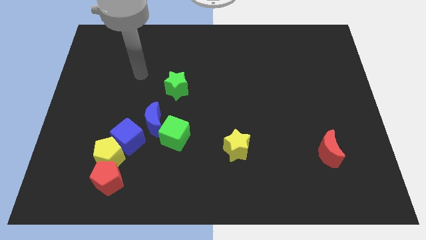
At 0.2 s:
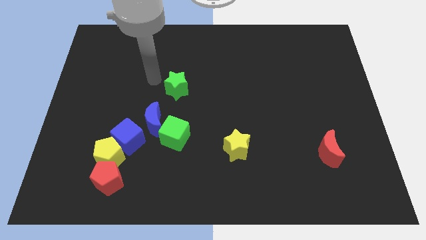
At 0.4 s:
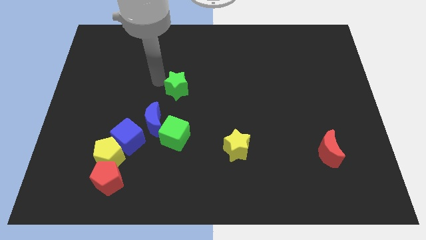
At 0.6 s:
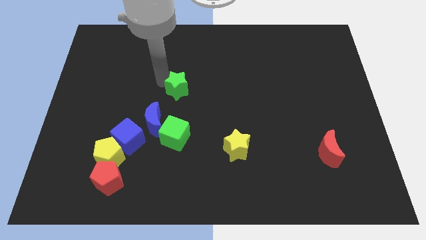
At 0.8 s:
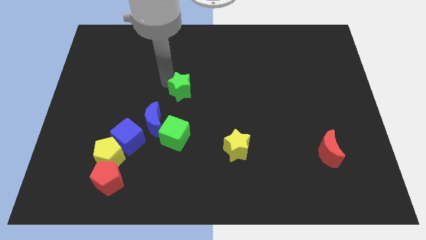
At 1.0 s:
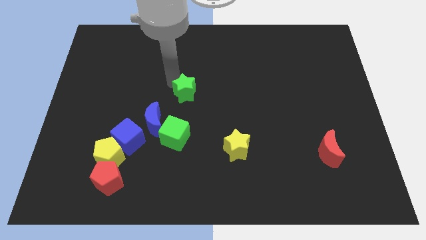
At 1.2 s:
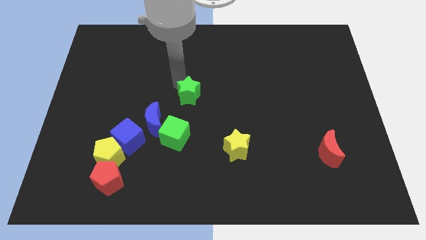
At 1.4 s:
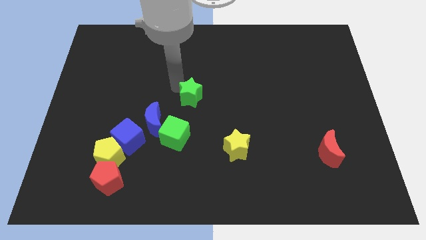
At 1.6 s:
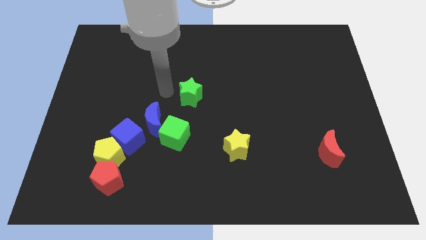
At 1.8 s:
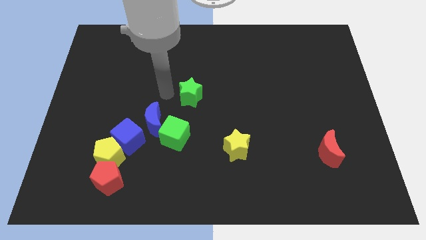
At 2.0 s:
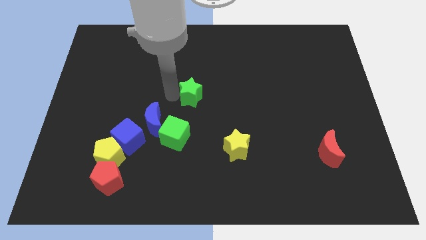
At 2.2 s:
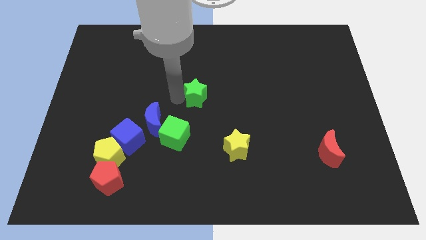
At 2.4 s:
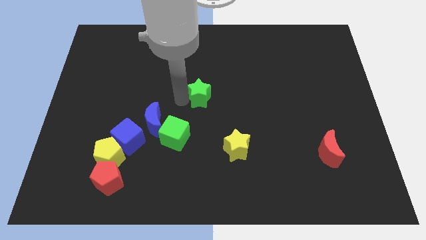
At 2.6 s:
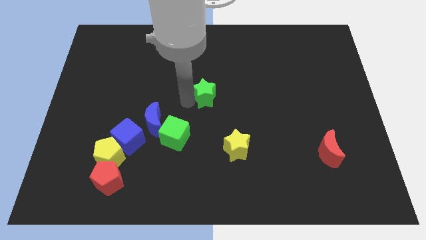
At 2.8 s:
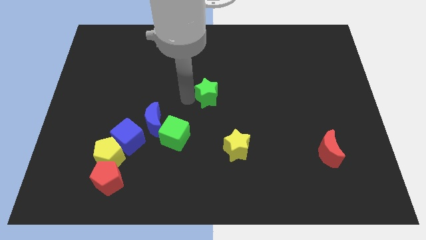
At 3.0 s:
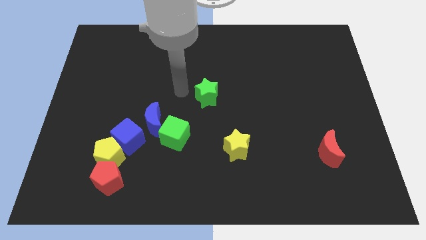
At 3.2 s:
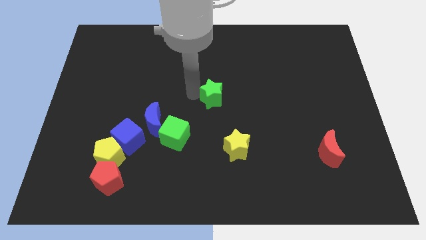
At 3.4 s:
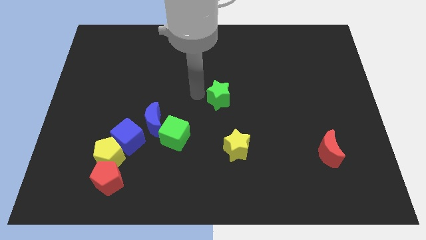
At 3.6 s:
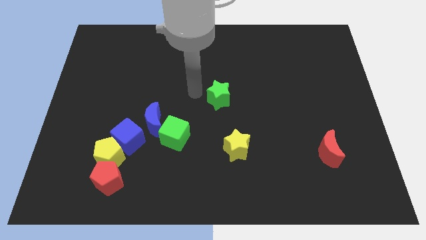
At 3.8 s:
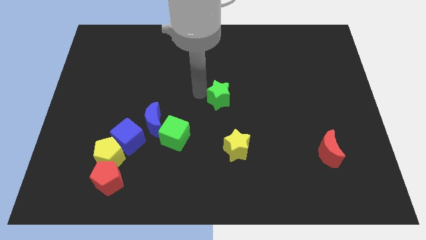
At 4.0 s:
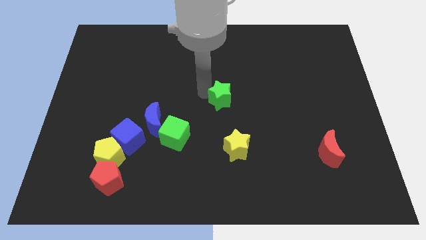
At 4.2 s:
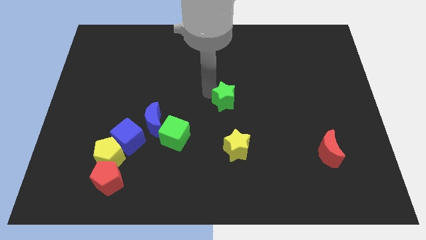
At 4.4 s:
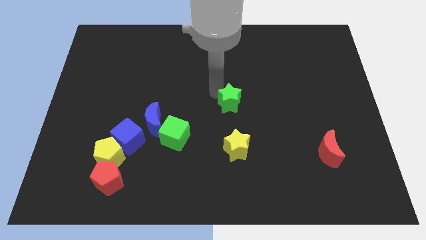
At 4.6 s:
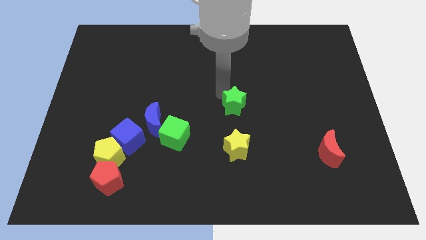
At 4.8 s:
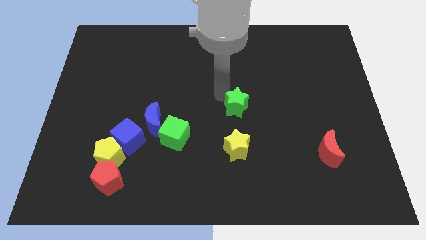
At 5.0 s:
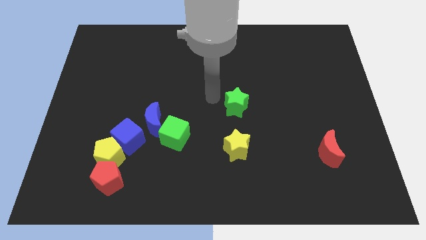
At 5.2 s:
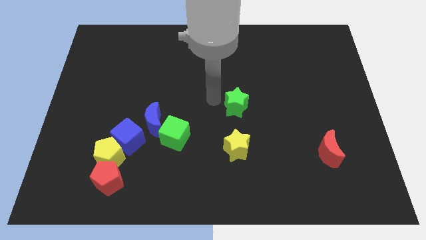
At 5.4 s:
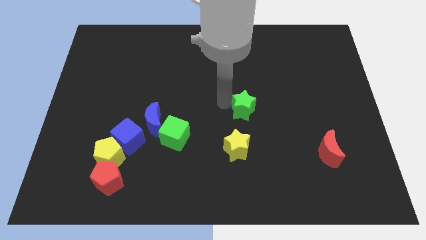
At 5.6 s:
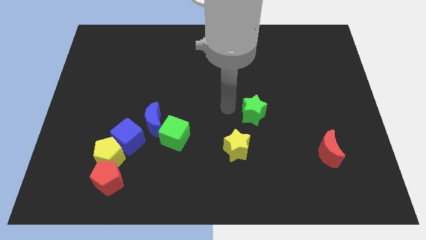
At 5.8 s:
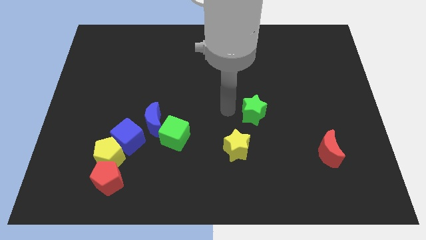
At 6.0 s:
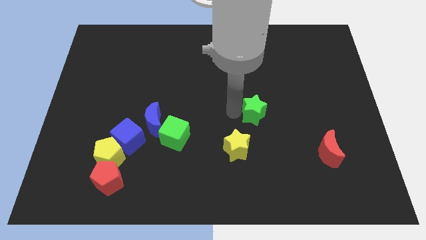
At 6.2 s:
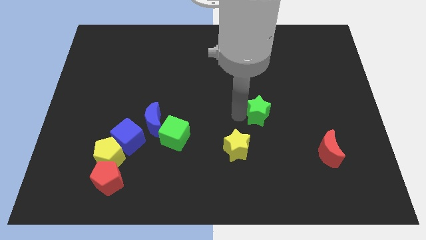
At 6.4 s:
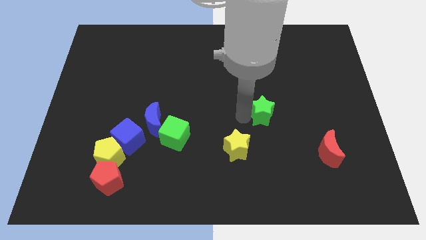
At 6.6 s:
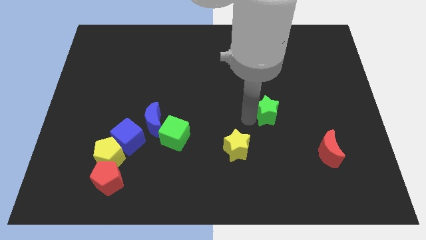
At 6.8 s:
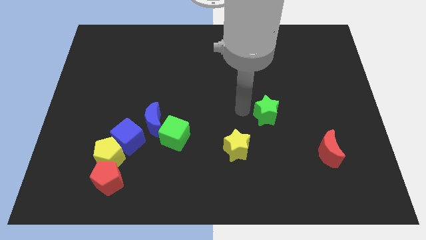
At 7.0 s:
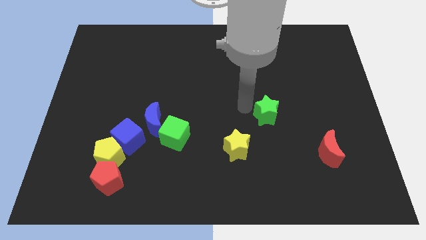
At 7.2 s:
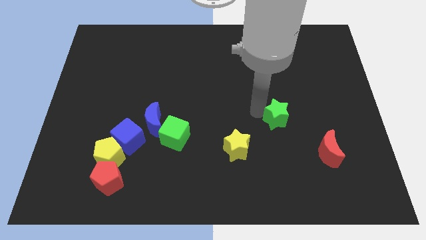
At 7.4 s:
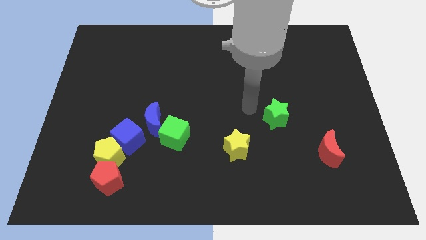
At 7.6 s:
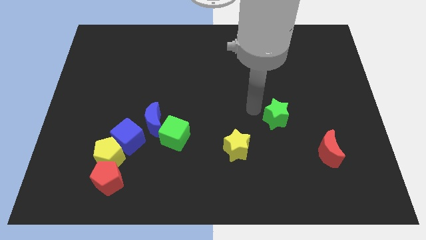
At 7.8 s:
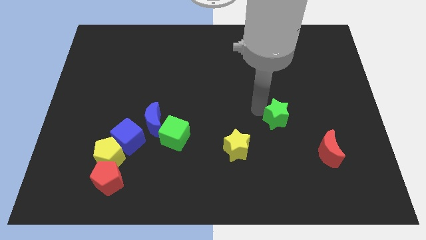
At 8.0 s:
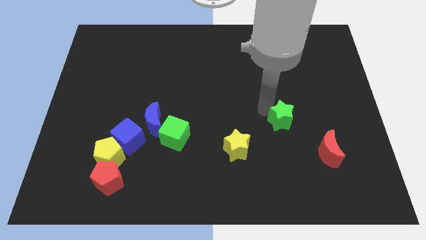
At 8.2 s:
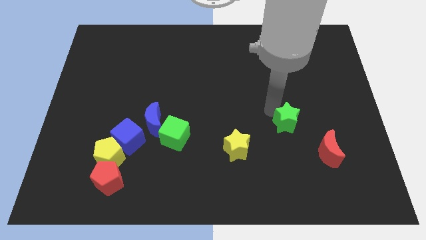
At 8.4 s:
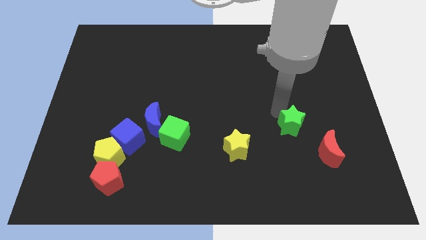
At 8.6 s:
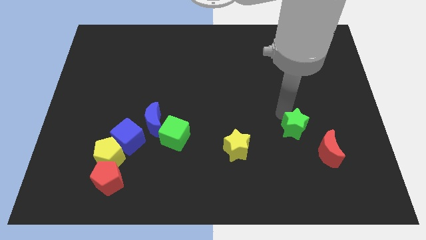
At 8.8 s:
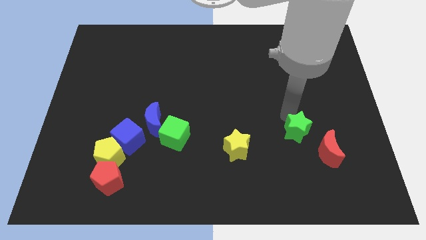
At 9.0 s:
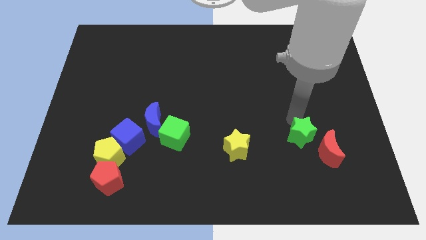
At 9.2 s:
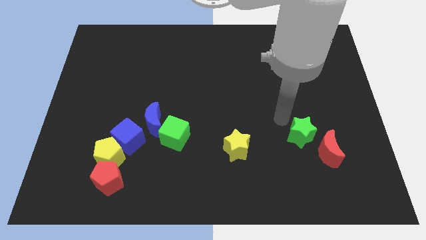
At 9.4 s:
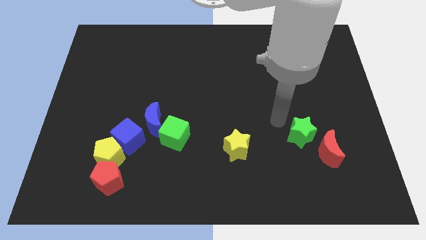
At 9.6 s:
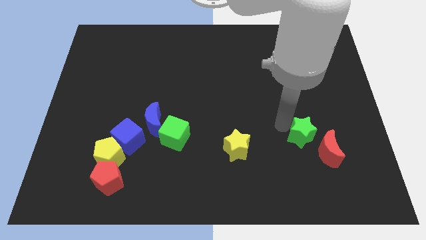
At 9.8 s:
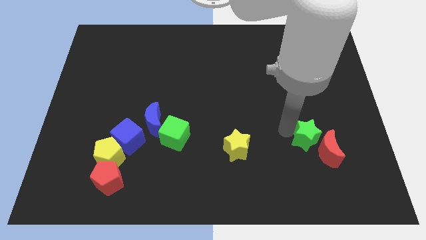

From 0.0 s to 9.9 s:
push the green star towards the red moon

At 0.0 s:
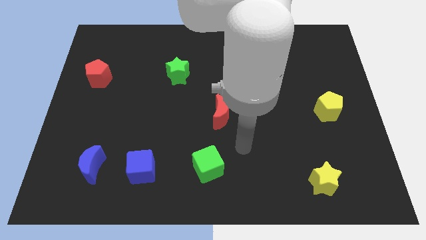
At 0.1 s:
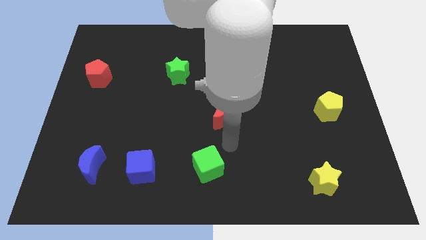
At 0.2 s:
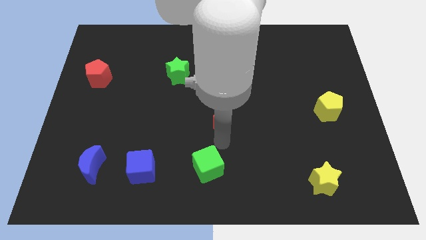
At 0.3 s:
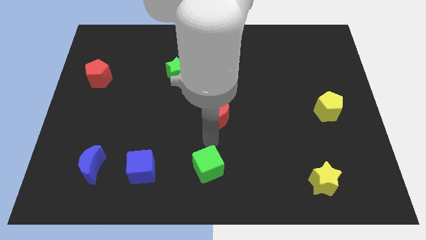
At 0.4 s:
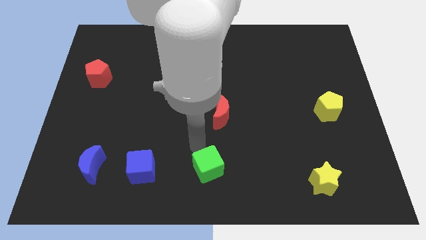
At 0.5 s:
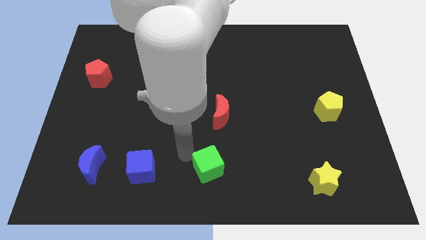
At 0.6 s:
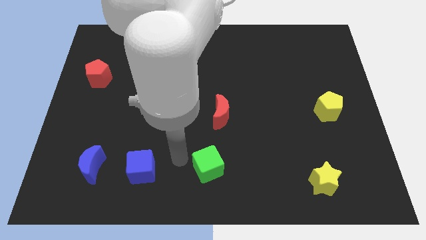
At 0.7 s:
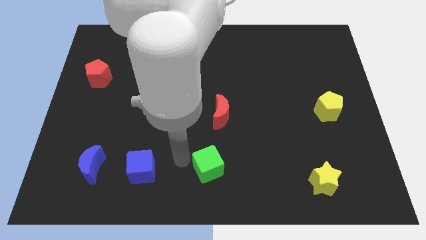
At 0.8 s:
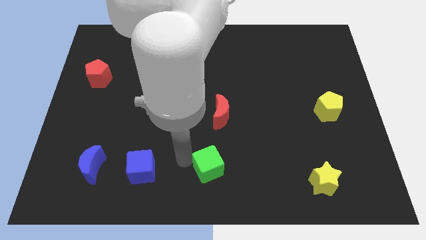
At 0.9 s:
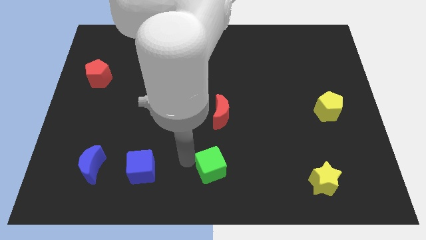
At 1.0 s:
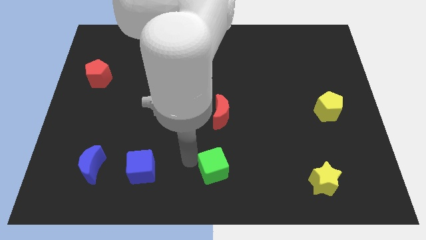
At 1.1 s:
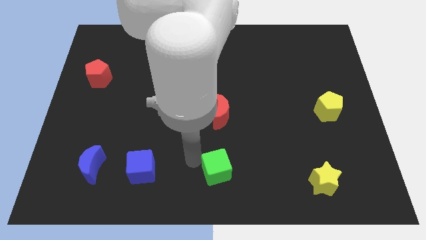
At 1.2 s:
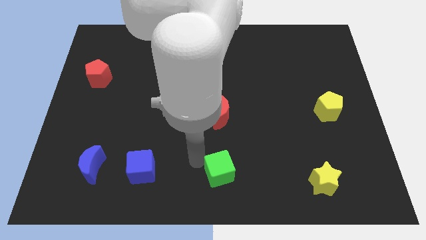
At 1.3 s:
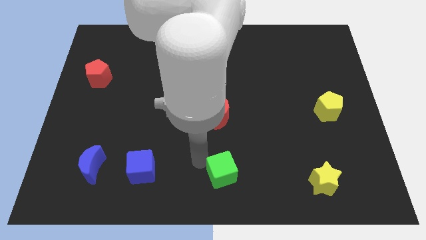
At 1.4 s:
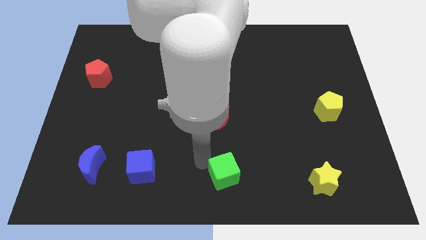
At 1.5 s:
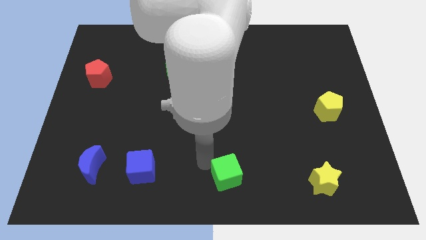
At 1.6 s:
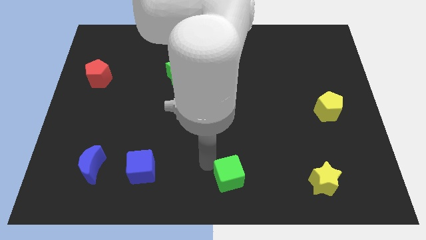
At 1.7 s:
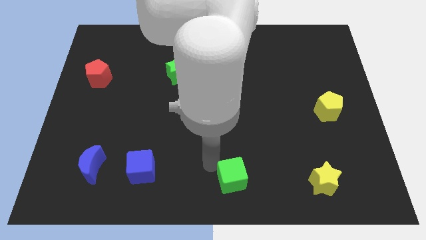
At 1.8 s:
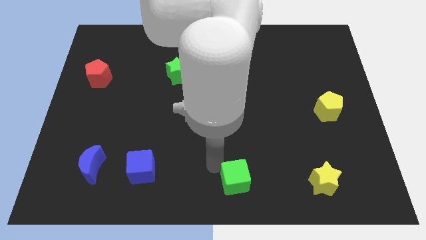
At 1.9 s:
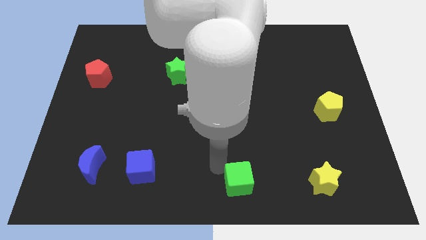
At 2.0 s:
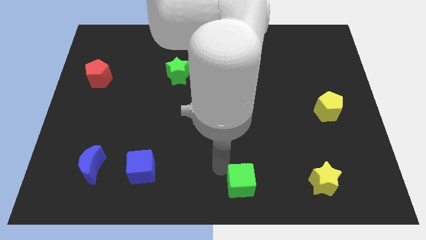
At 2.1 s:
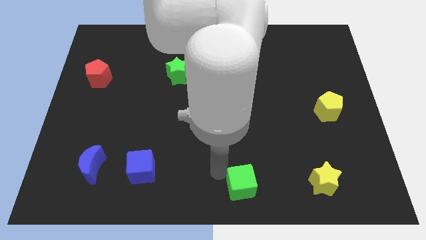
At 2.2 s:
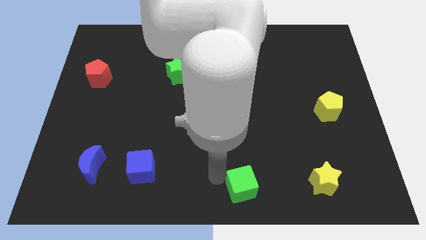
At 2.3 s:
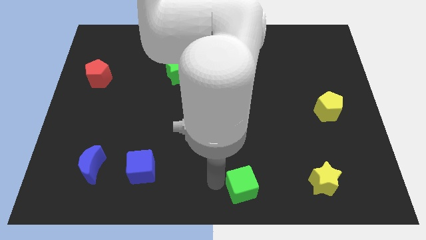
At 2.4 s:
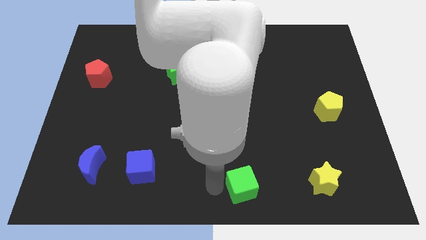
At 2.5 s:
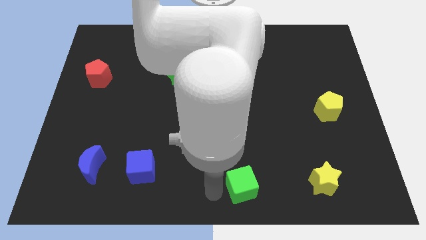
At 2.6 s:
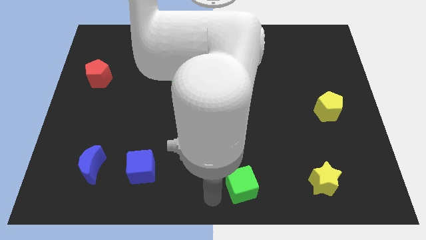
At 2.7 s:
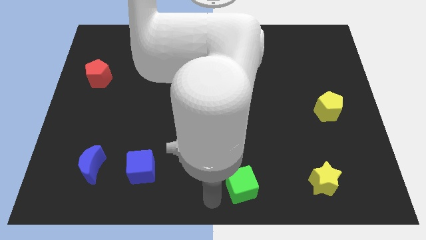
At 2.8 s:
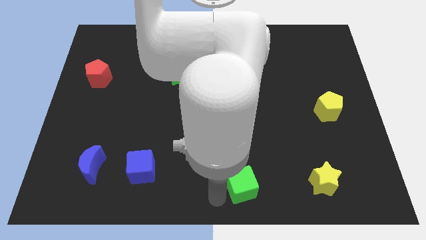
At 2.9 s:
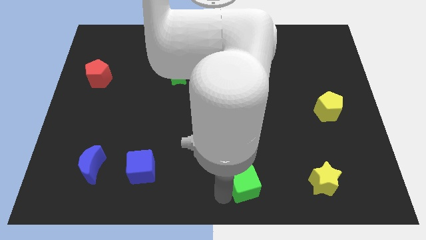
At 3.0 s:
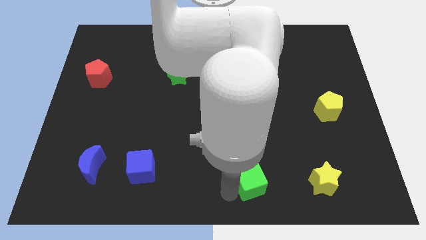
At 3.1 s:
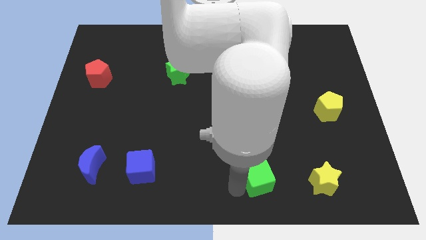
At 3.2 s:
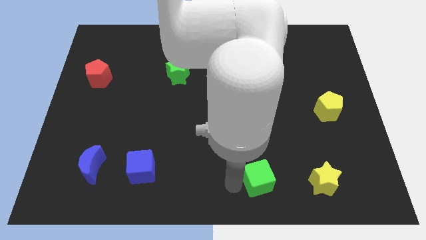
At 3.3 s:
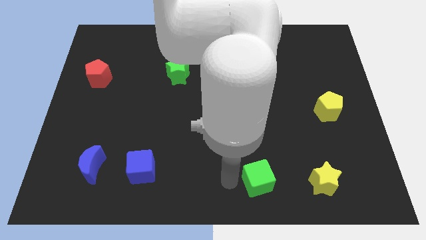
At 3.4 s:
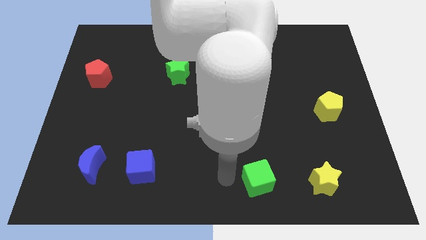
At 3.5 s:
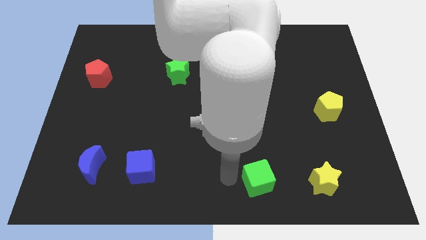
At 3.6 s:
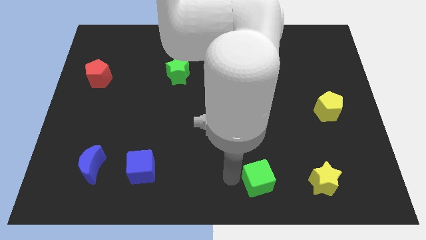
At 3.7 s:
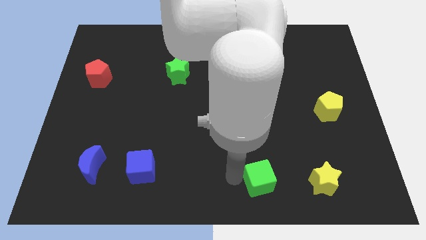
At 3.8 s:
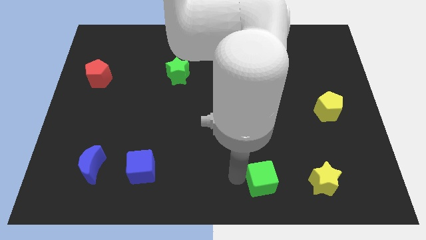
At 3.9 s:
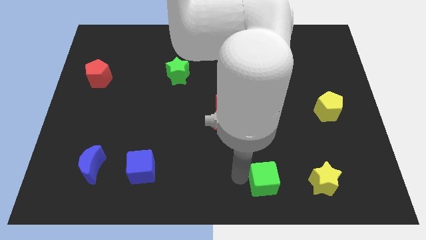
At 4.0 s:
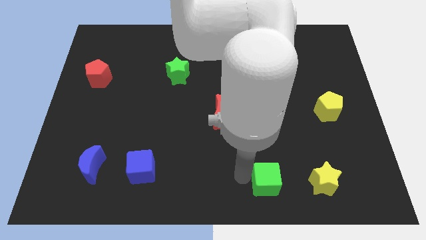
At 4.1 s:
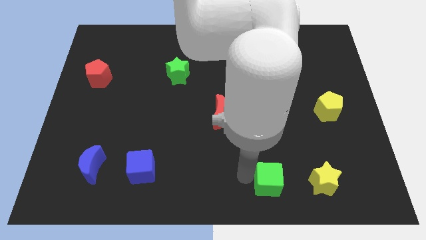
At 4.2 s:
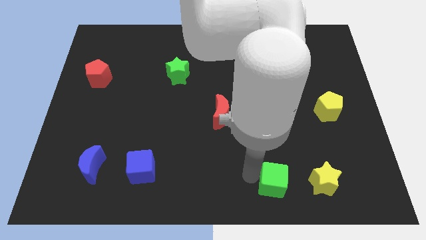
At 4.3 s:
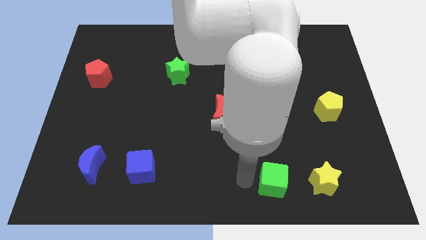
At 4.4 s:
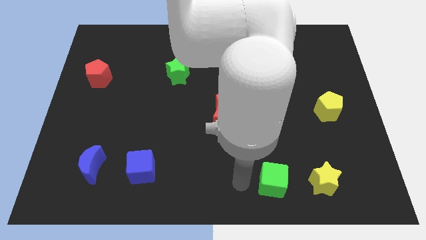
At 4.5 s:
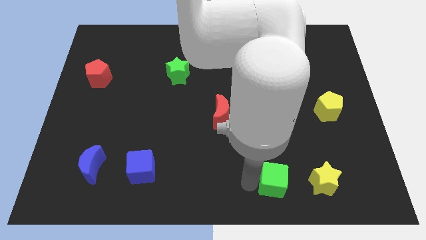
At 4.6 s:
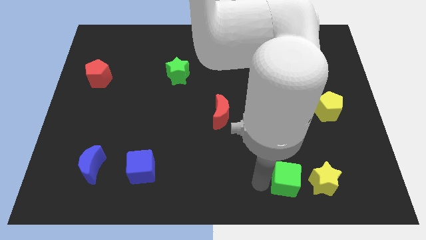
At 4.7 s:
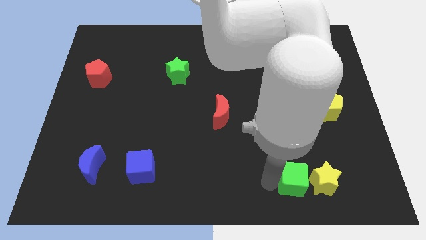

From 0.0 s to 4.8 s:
move the green cube next to the yellow star
